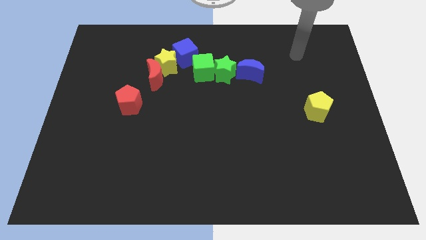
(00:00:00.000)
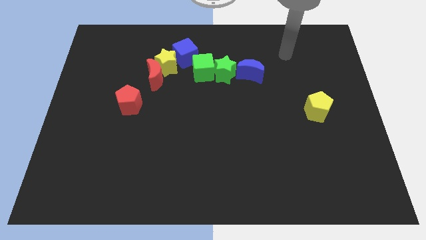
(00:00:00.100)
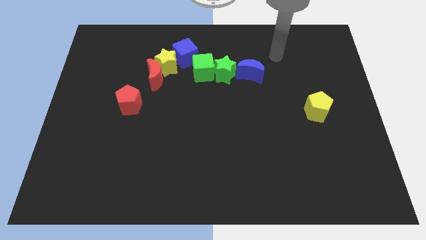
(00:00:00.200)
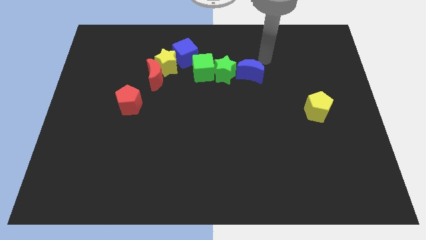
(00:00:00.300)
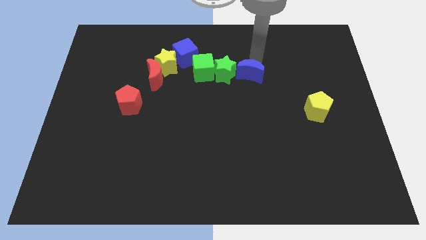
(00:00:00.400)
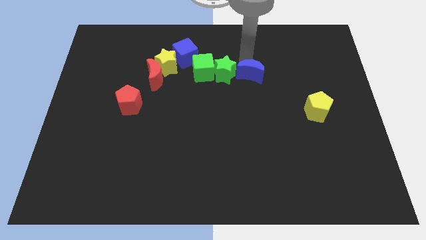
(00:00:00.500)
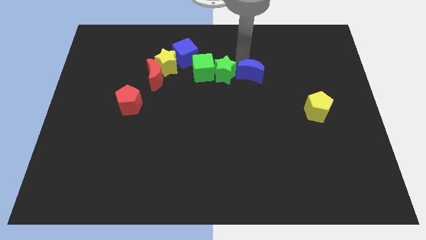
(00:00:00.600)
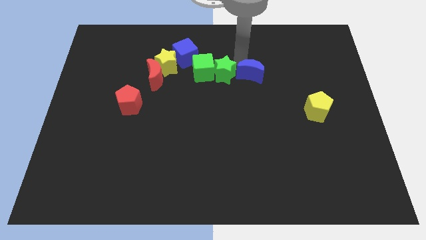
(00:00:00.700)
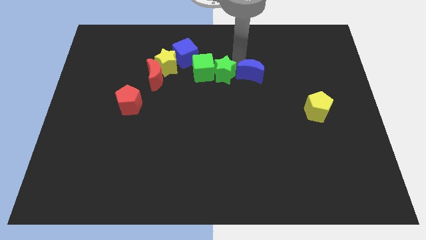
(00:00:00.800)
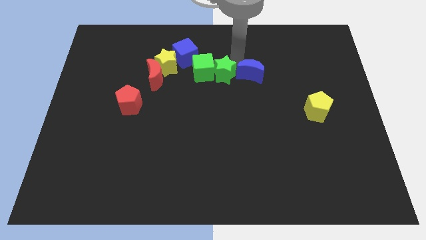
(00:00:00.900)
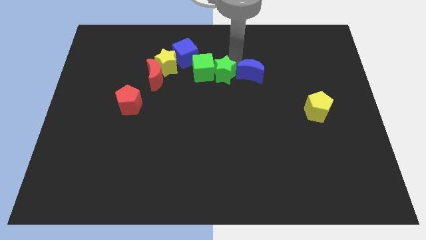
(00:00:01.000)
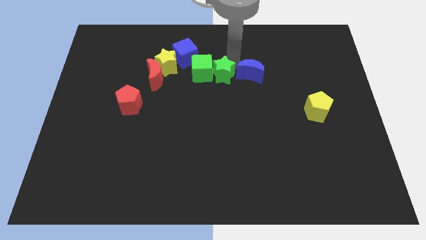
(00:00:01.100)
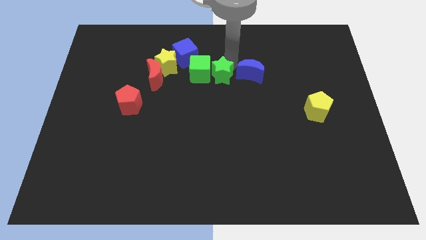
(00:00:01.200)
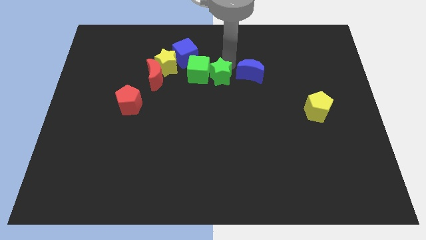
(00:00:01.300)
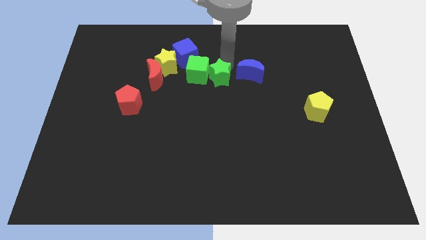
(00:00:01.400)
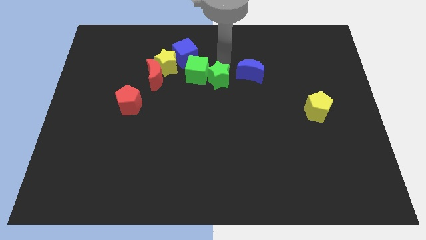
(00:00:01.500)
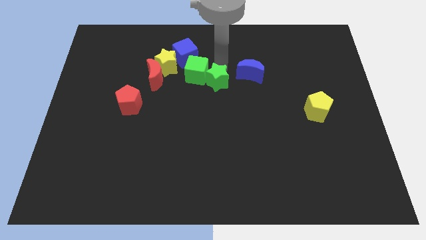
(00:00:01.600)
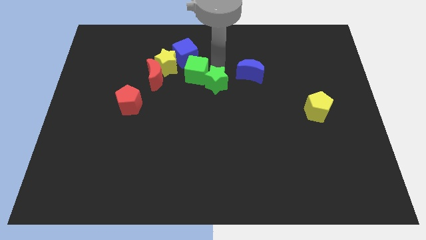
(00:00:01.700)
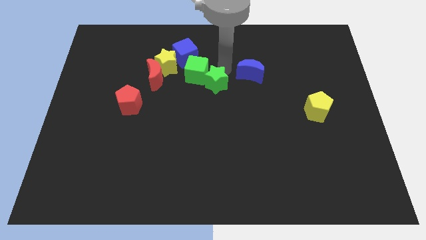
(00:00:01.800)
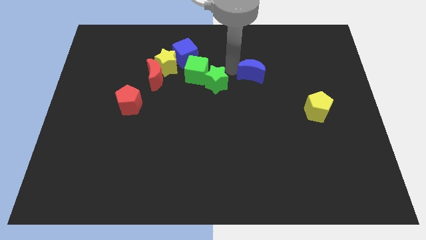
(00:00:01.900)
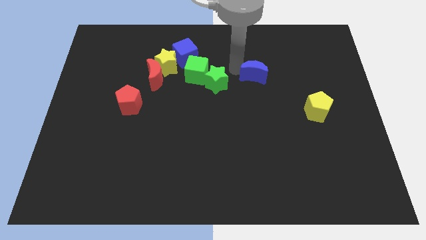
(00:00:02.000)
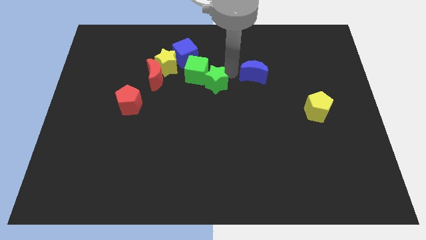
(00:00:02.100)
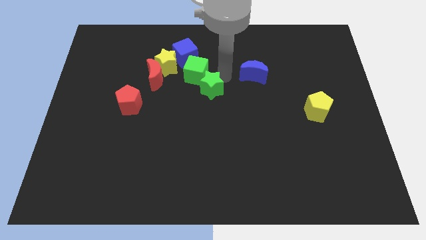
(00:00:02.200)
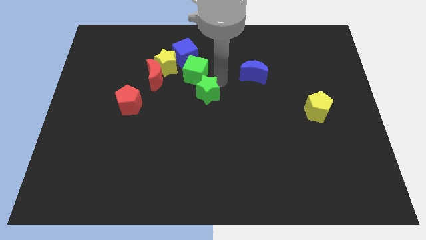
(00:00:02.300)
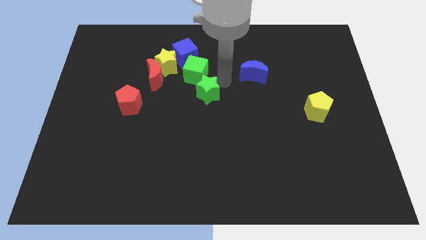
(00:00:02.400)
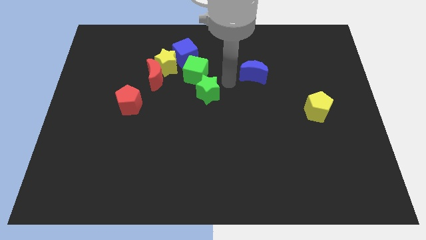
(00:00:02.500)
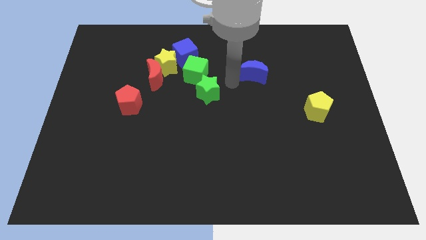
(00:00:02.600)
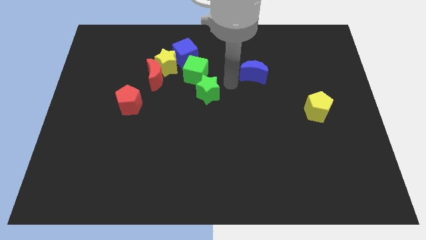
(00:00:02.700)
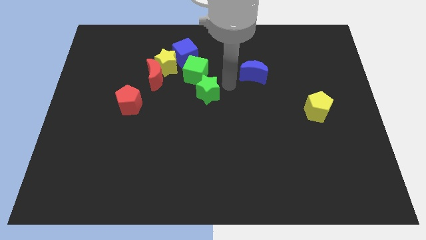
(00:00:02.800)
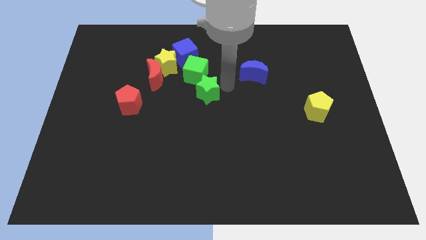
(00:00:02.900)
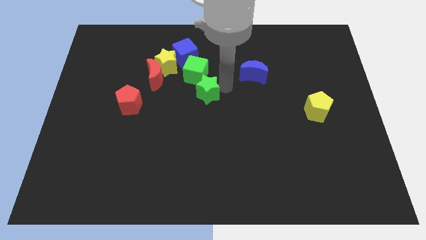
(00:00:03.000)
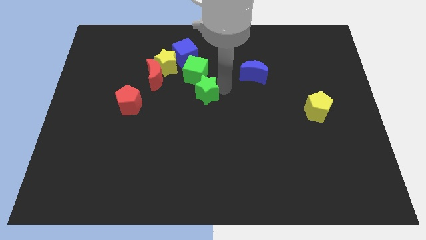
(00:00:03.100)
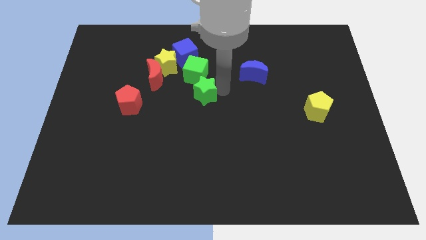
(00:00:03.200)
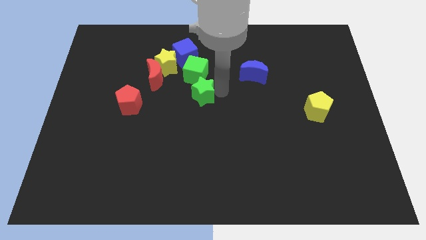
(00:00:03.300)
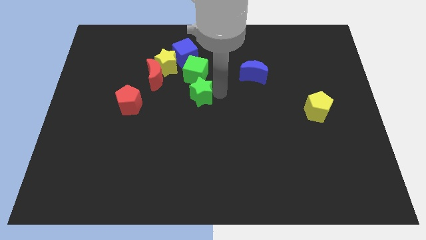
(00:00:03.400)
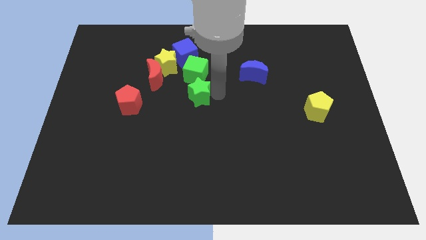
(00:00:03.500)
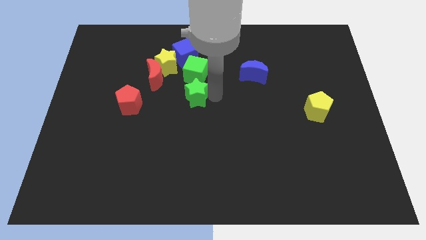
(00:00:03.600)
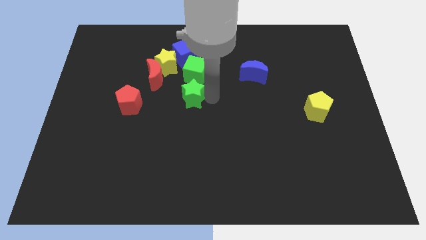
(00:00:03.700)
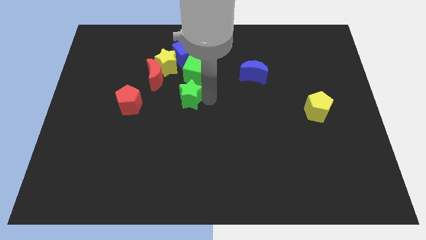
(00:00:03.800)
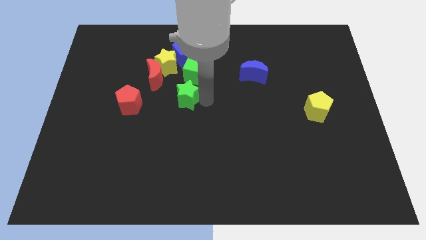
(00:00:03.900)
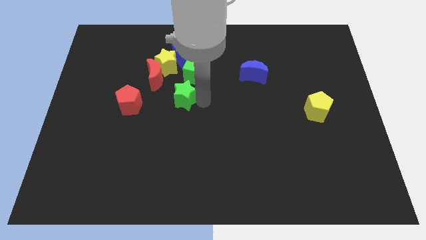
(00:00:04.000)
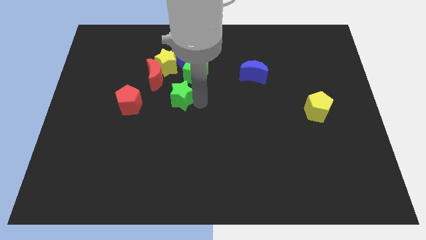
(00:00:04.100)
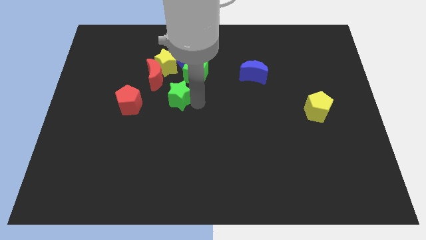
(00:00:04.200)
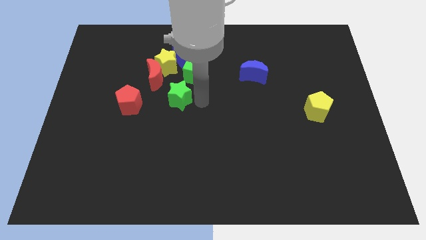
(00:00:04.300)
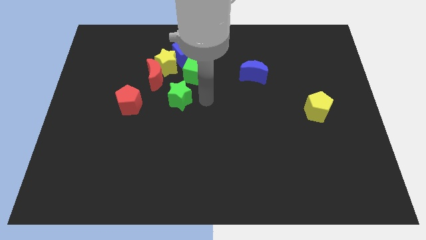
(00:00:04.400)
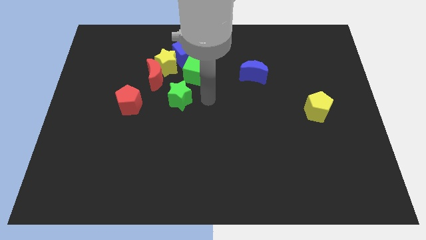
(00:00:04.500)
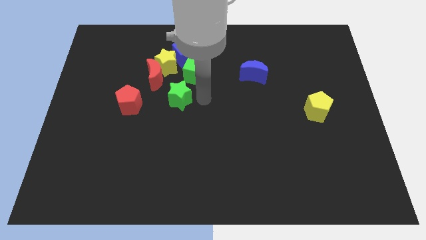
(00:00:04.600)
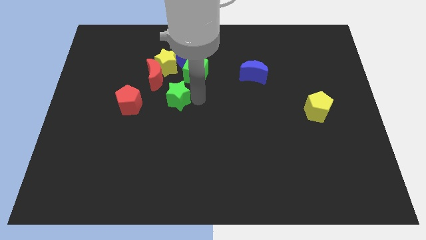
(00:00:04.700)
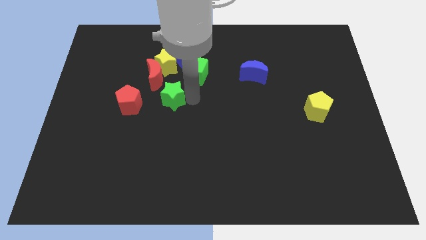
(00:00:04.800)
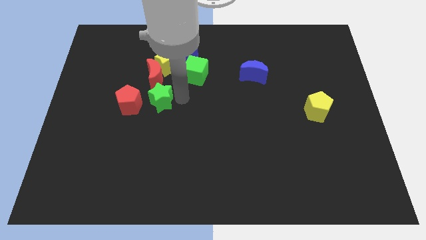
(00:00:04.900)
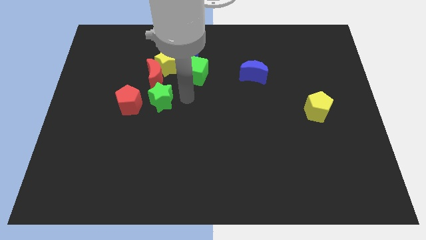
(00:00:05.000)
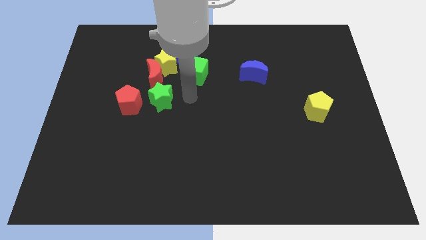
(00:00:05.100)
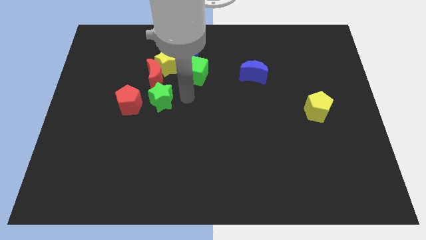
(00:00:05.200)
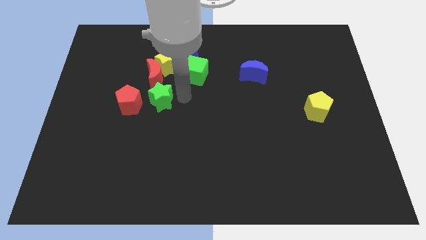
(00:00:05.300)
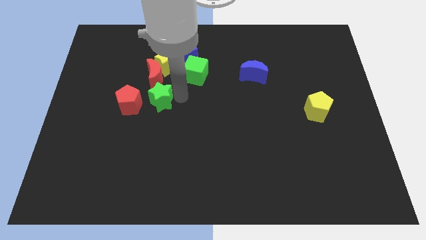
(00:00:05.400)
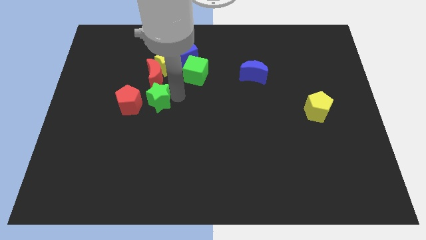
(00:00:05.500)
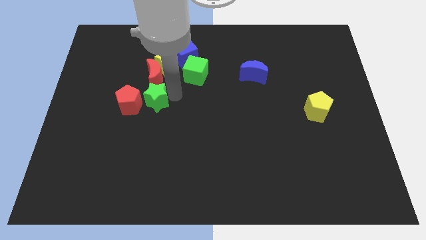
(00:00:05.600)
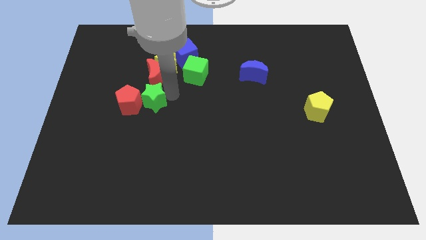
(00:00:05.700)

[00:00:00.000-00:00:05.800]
slide the green star close to the red pentagon

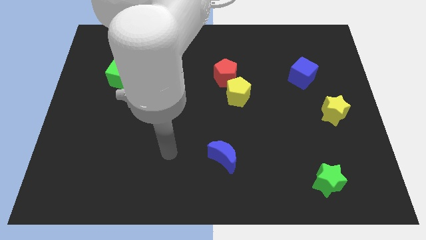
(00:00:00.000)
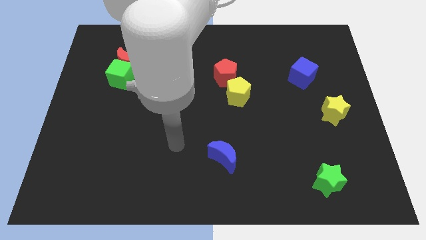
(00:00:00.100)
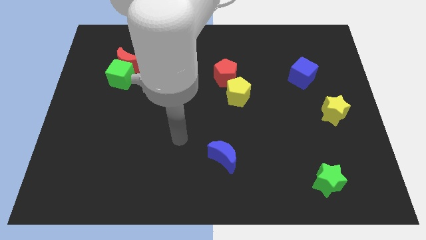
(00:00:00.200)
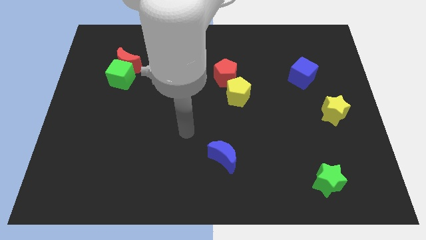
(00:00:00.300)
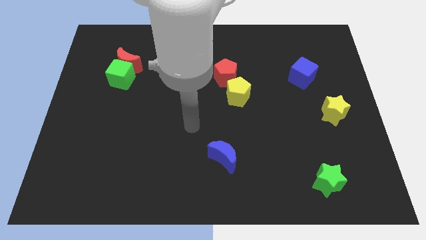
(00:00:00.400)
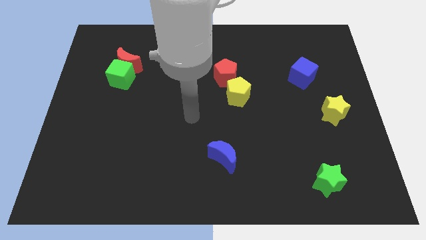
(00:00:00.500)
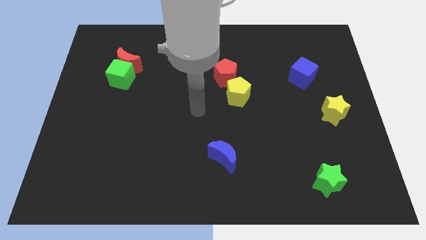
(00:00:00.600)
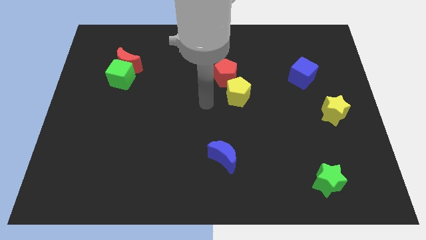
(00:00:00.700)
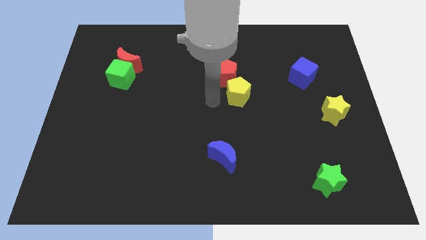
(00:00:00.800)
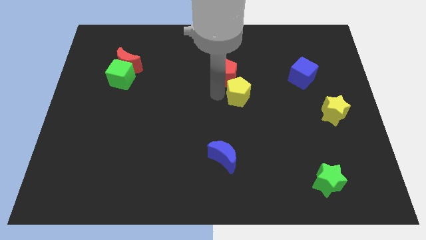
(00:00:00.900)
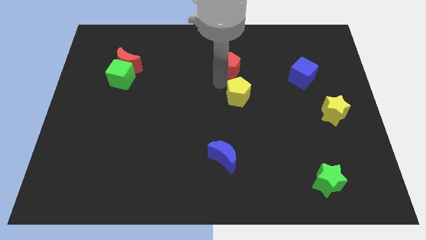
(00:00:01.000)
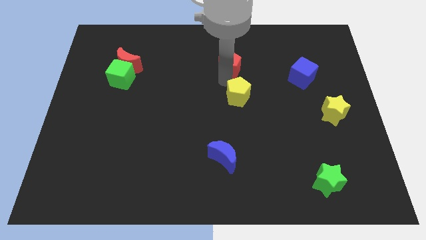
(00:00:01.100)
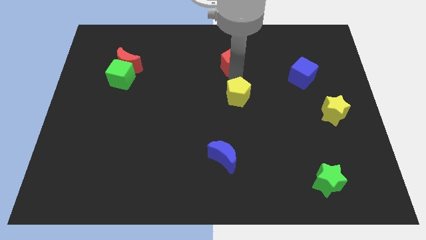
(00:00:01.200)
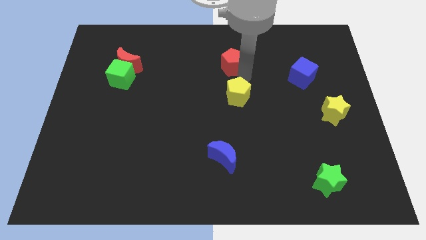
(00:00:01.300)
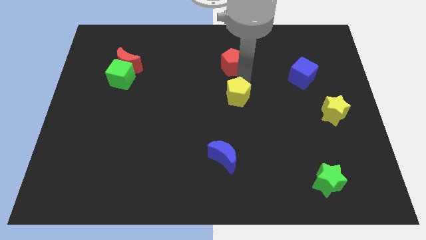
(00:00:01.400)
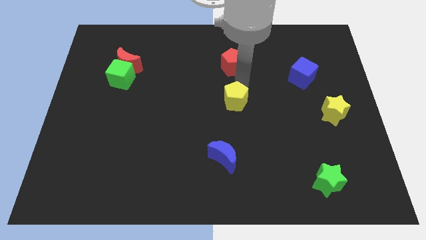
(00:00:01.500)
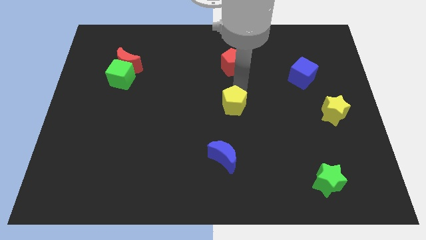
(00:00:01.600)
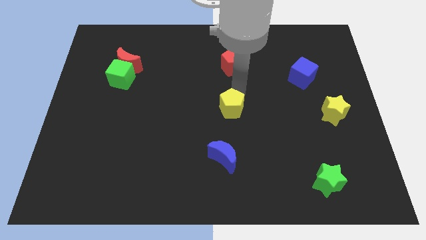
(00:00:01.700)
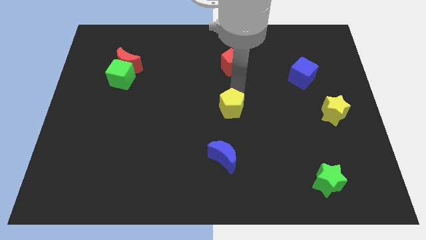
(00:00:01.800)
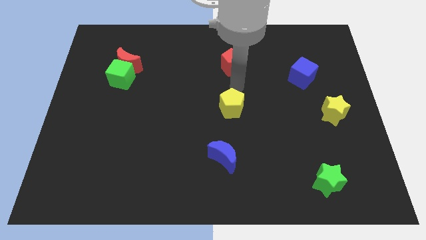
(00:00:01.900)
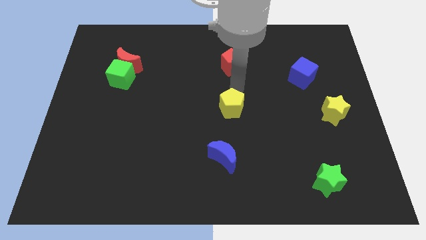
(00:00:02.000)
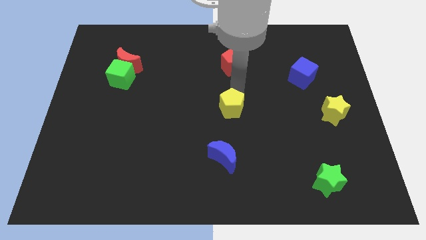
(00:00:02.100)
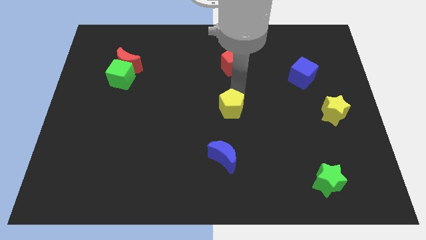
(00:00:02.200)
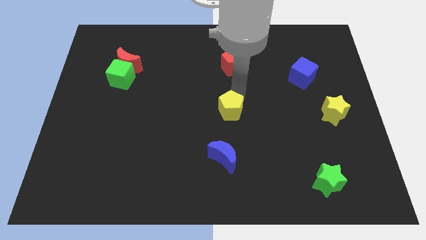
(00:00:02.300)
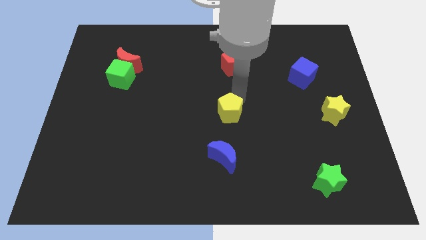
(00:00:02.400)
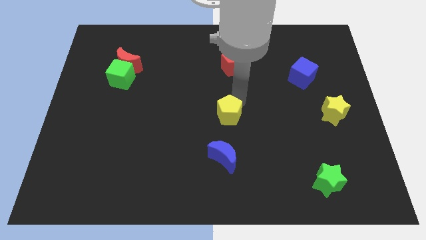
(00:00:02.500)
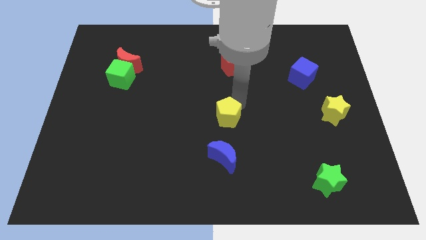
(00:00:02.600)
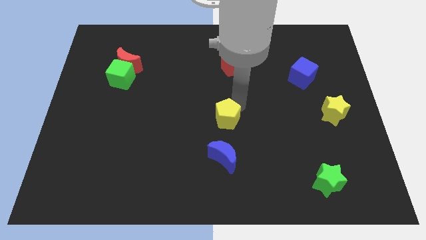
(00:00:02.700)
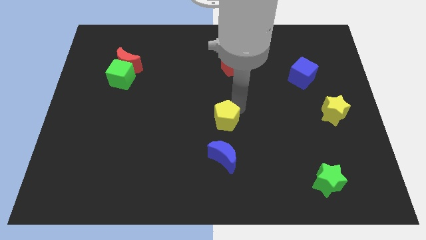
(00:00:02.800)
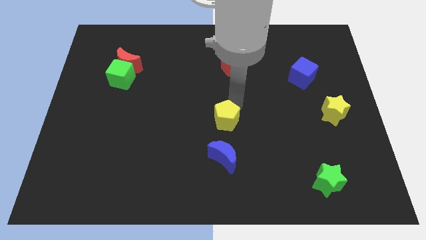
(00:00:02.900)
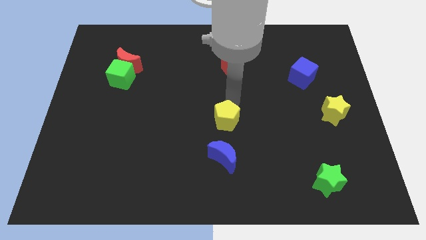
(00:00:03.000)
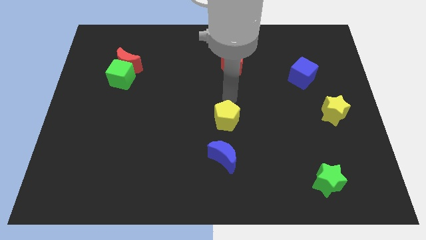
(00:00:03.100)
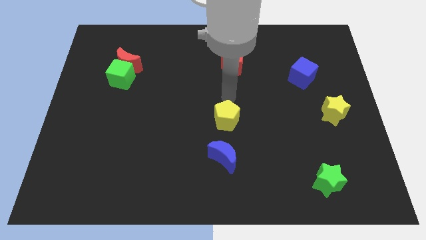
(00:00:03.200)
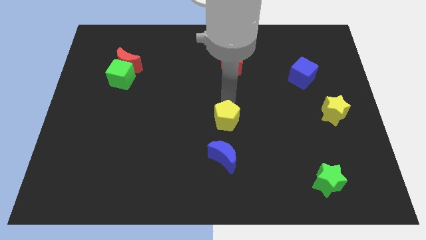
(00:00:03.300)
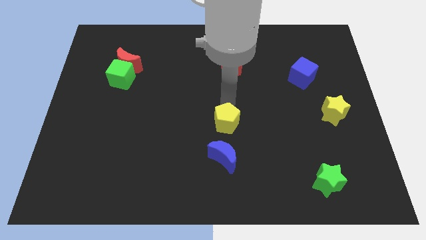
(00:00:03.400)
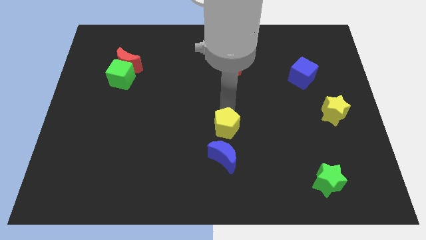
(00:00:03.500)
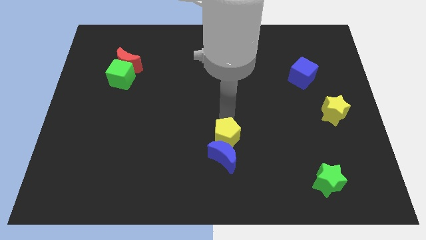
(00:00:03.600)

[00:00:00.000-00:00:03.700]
slide the yellow pentagon next to the blue moon
